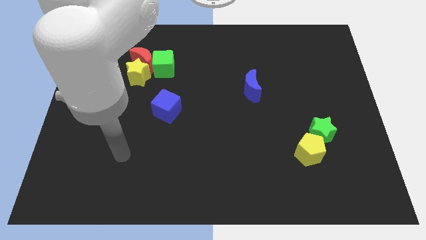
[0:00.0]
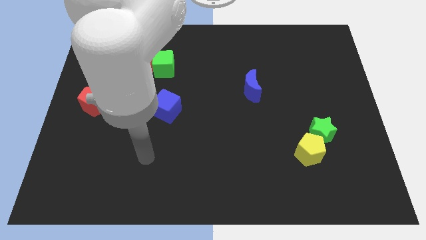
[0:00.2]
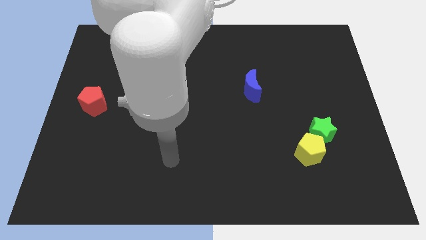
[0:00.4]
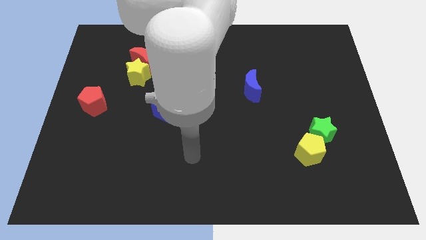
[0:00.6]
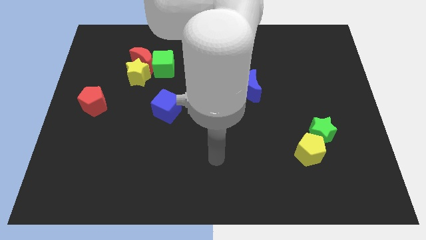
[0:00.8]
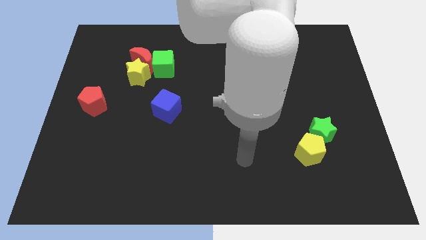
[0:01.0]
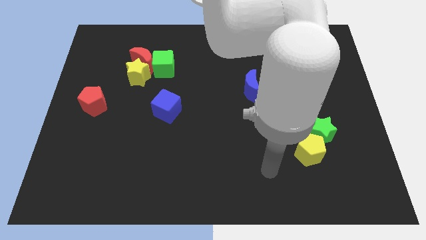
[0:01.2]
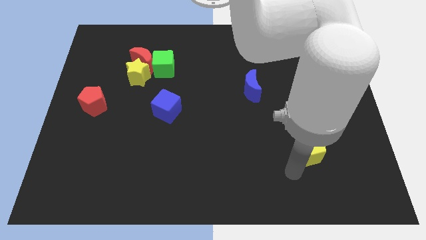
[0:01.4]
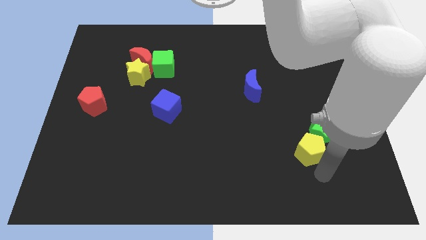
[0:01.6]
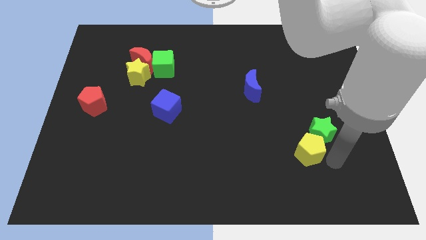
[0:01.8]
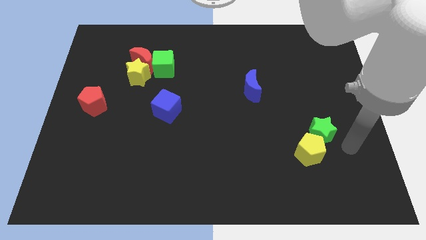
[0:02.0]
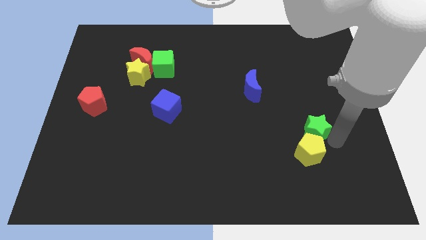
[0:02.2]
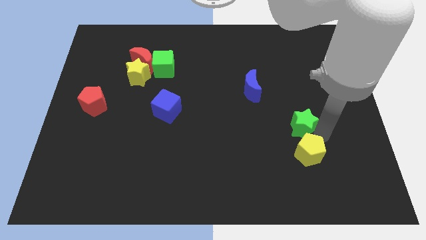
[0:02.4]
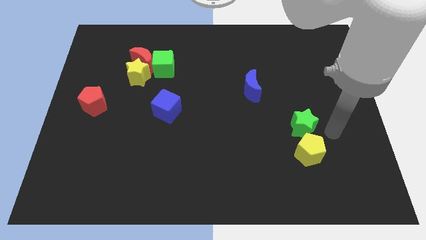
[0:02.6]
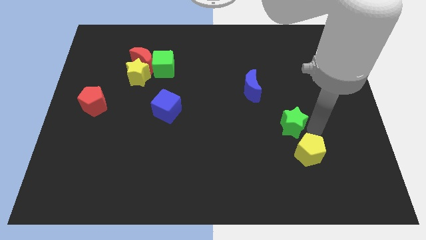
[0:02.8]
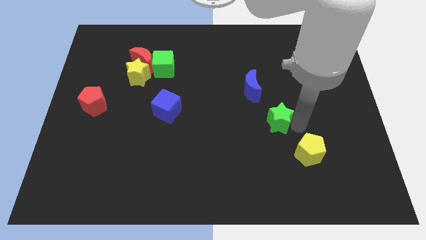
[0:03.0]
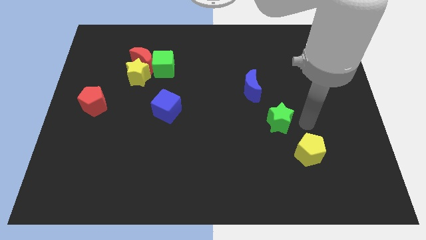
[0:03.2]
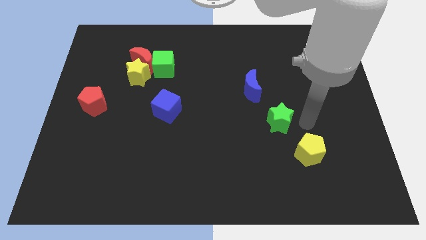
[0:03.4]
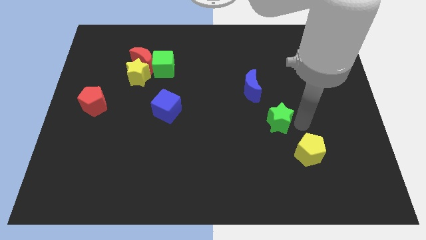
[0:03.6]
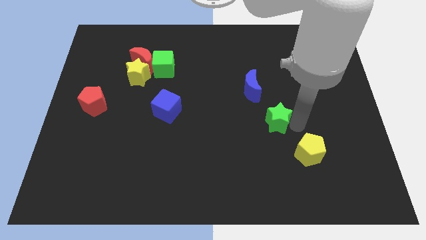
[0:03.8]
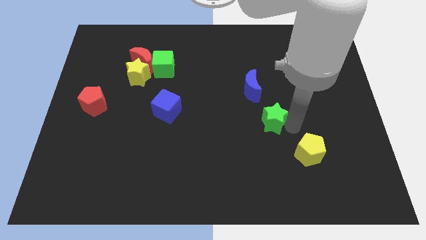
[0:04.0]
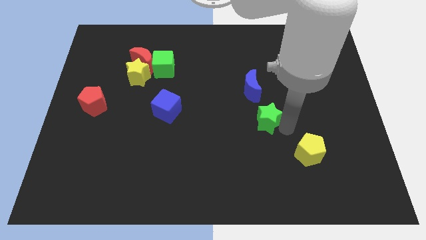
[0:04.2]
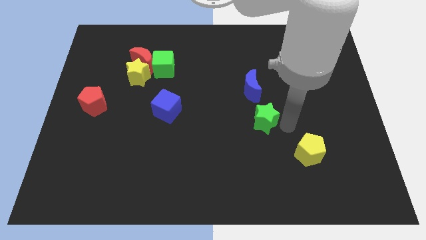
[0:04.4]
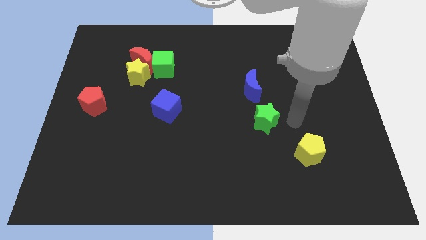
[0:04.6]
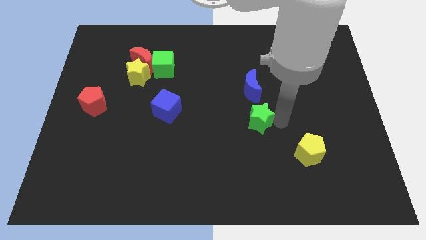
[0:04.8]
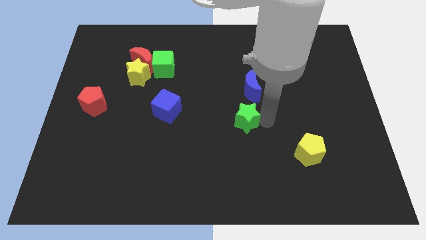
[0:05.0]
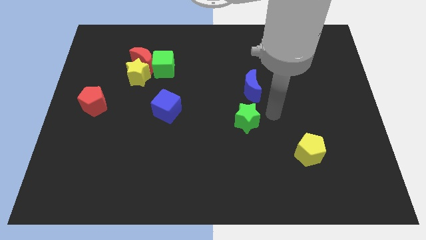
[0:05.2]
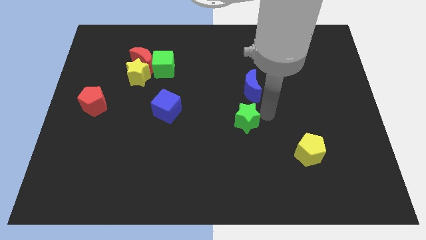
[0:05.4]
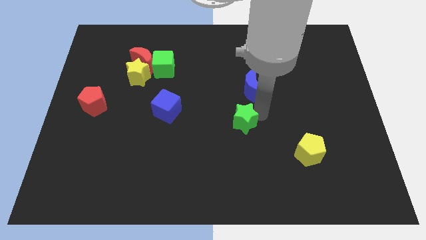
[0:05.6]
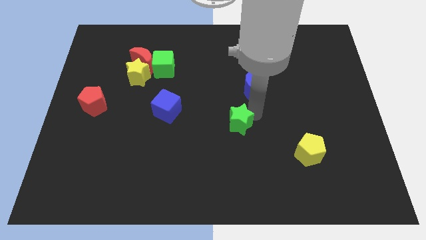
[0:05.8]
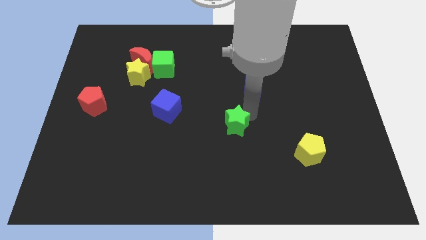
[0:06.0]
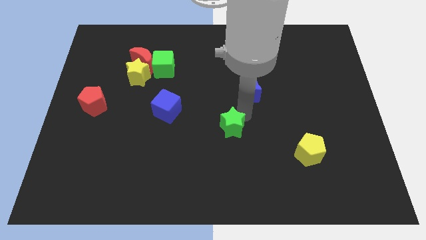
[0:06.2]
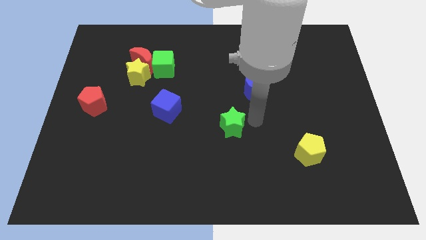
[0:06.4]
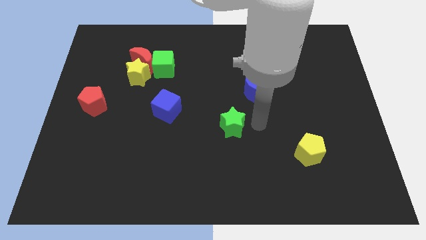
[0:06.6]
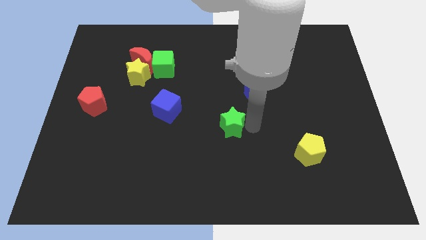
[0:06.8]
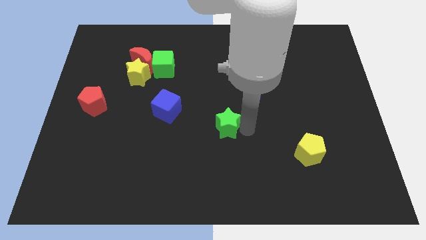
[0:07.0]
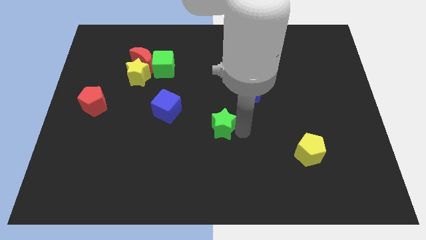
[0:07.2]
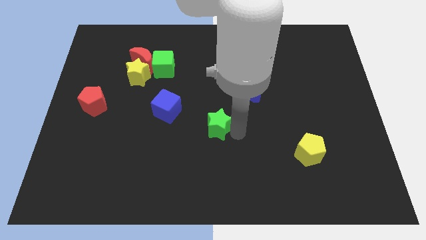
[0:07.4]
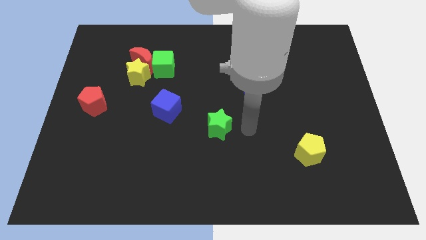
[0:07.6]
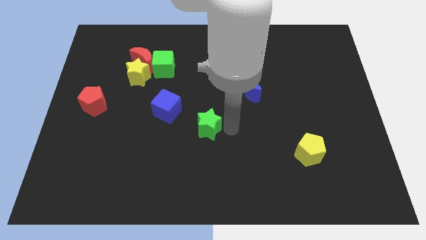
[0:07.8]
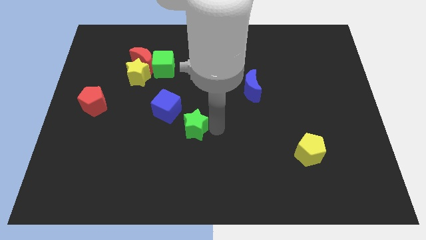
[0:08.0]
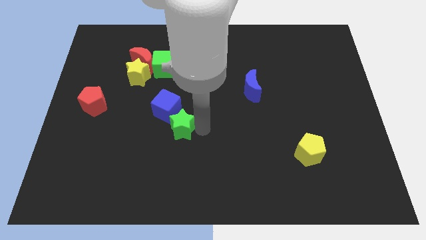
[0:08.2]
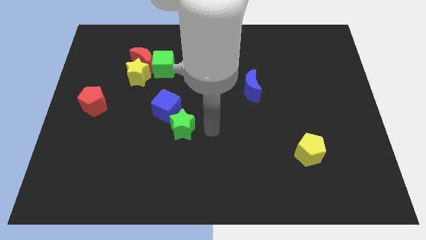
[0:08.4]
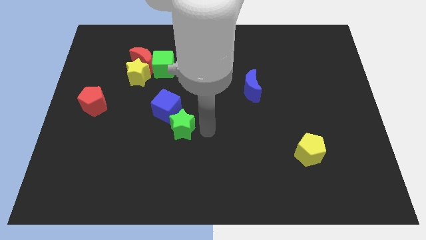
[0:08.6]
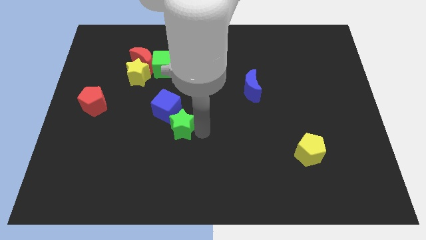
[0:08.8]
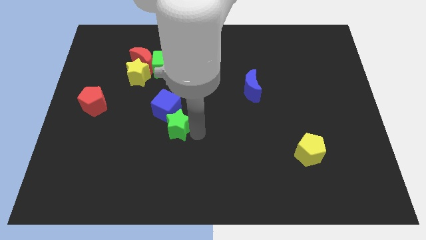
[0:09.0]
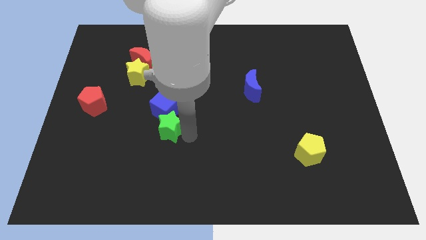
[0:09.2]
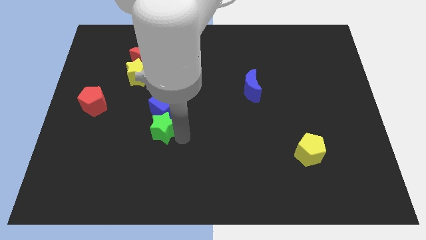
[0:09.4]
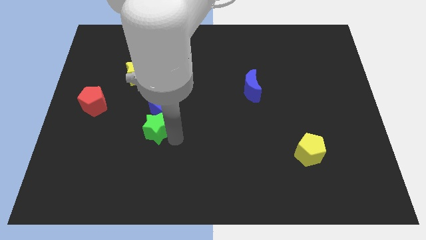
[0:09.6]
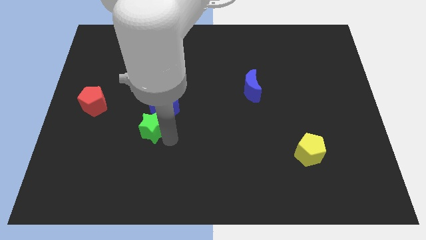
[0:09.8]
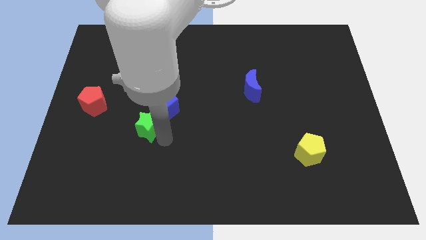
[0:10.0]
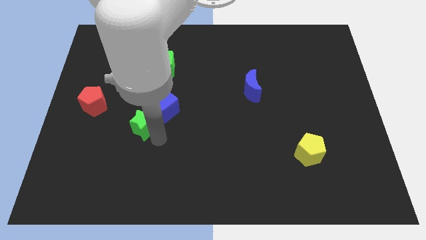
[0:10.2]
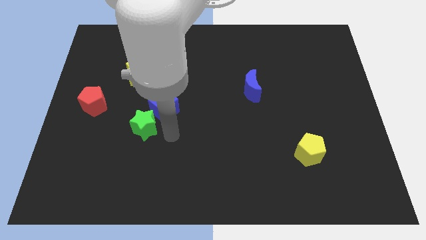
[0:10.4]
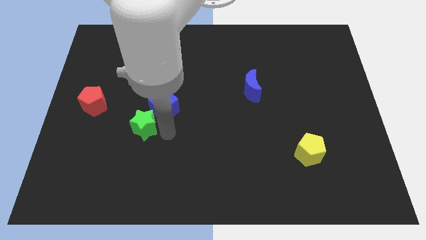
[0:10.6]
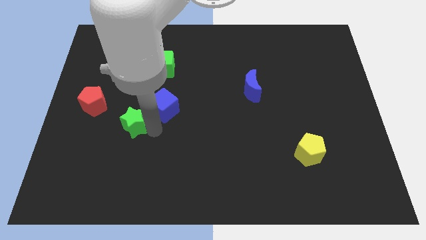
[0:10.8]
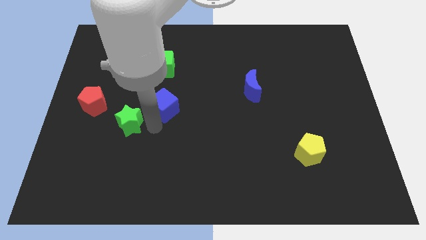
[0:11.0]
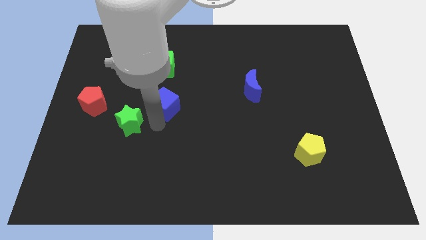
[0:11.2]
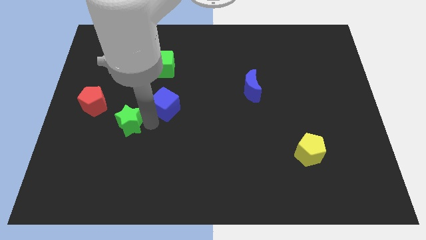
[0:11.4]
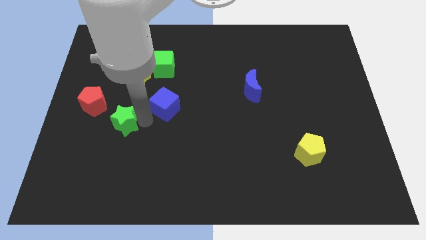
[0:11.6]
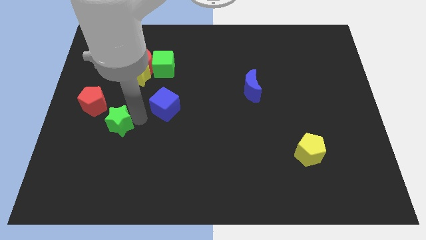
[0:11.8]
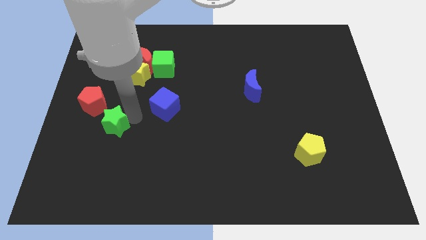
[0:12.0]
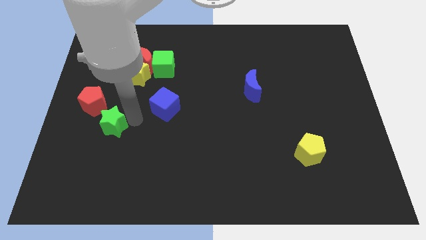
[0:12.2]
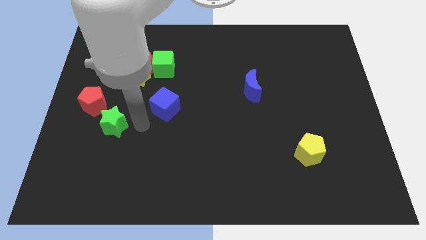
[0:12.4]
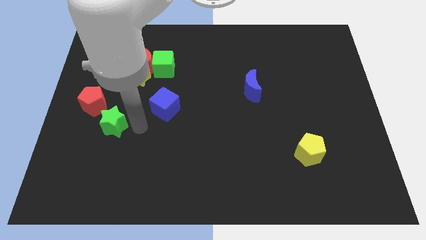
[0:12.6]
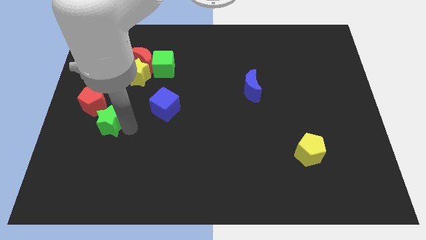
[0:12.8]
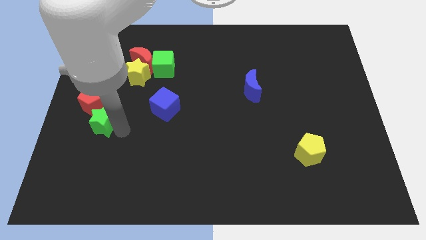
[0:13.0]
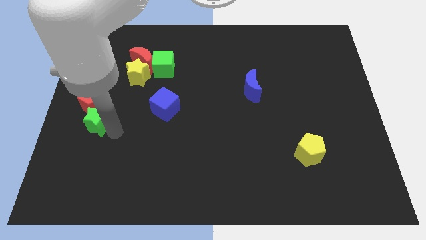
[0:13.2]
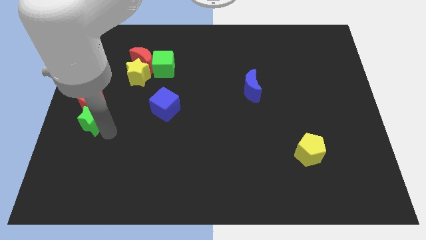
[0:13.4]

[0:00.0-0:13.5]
put the green star to the left side
